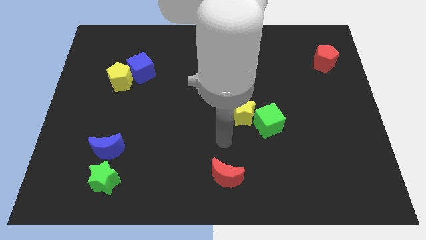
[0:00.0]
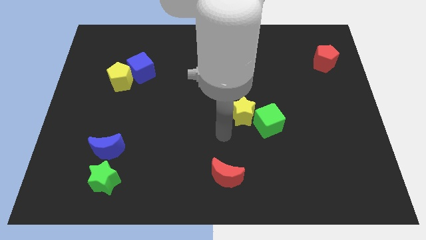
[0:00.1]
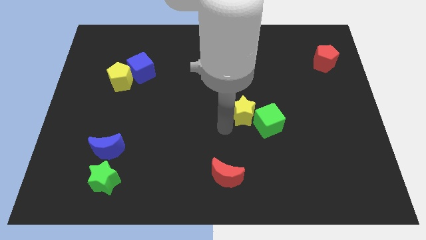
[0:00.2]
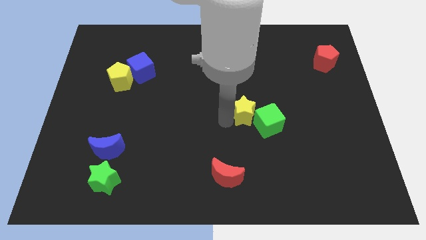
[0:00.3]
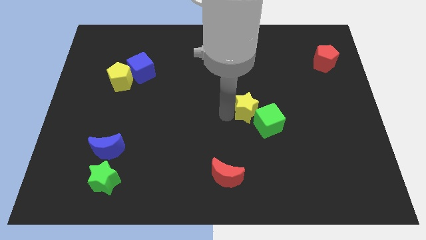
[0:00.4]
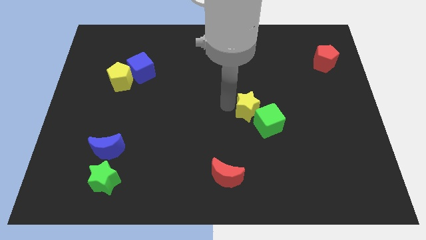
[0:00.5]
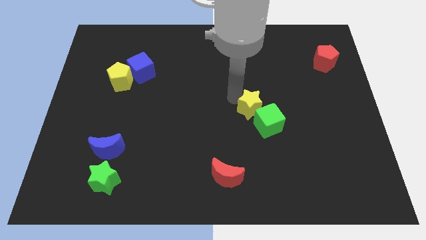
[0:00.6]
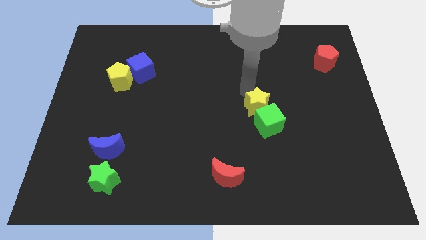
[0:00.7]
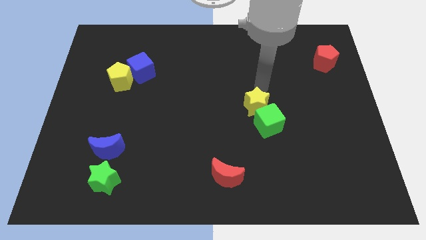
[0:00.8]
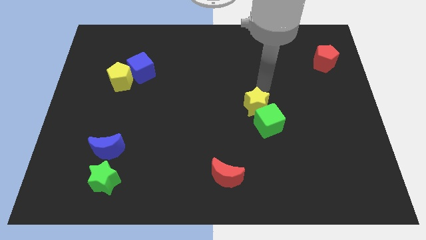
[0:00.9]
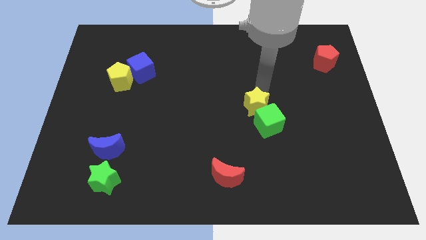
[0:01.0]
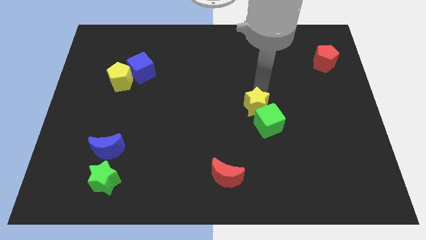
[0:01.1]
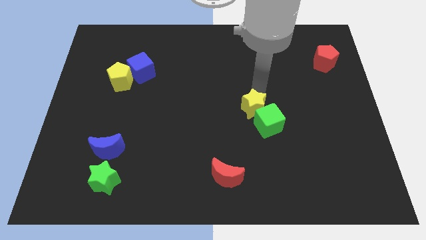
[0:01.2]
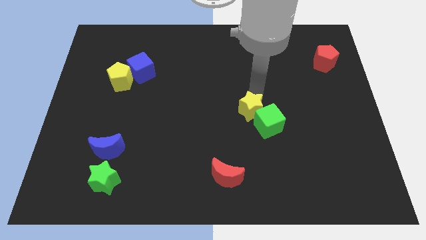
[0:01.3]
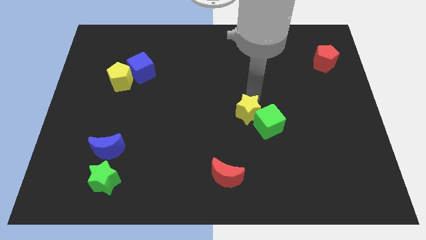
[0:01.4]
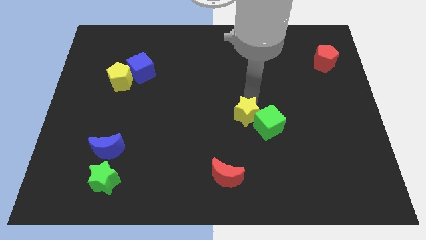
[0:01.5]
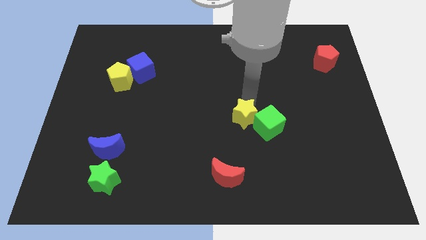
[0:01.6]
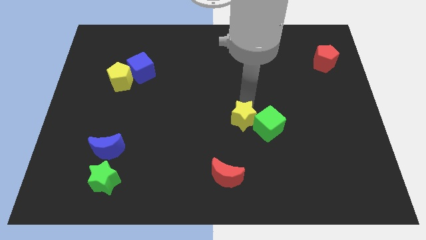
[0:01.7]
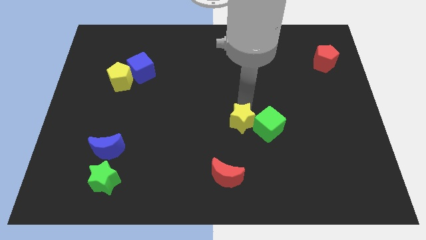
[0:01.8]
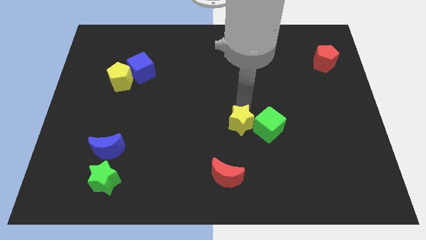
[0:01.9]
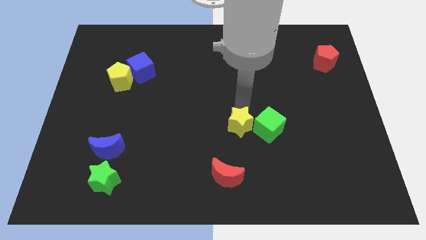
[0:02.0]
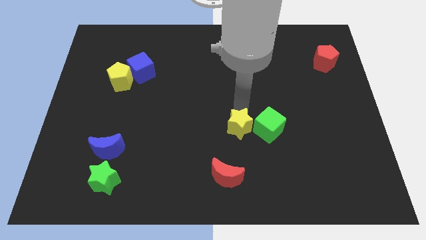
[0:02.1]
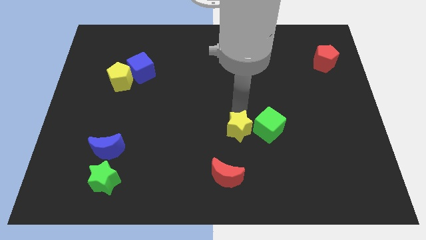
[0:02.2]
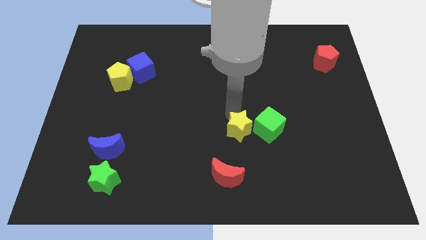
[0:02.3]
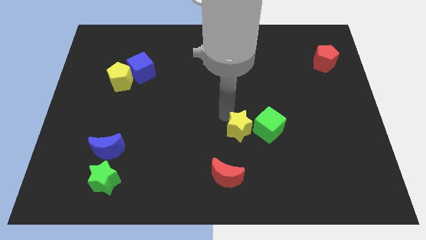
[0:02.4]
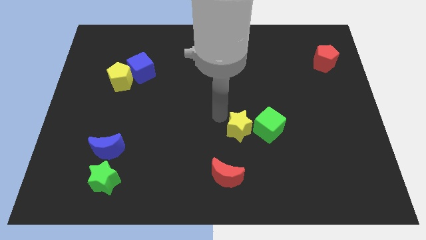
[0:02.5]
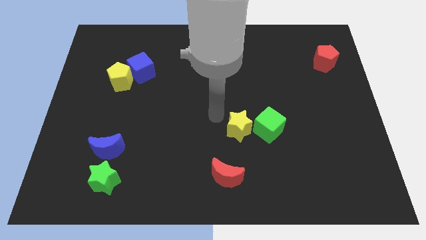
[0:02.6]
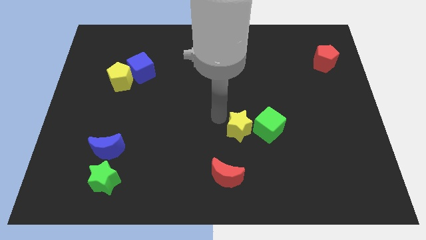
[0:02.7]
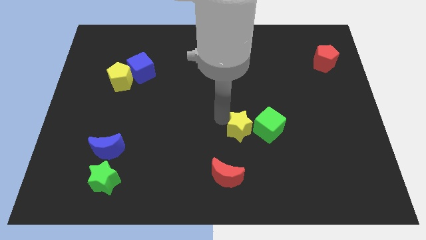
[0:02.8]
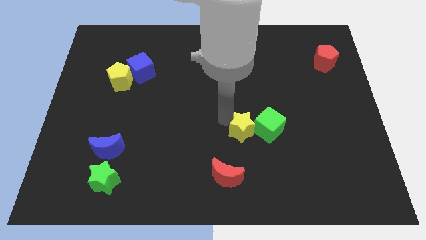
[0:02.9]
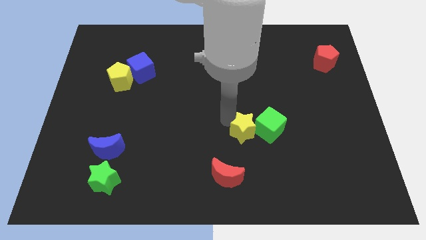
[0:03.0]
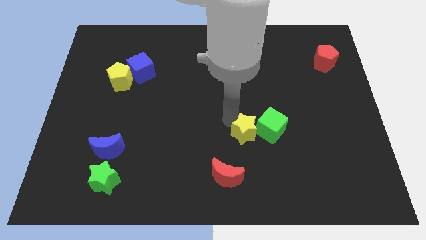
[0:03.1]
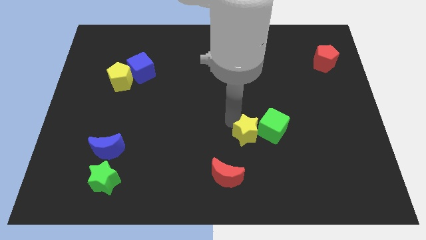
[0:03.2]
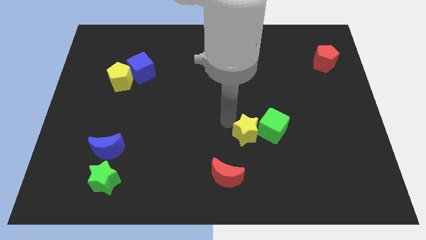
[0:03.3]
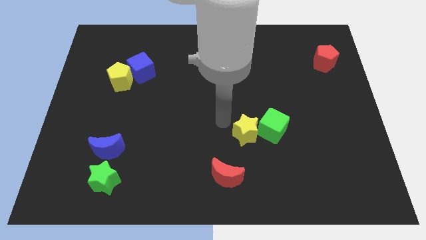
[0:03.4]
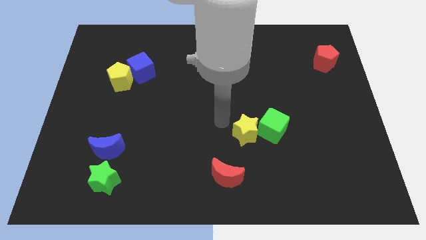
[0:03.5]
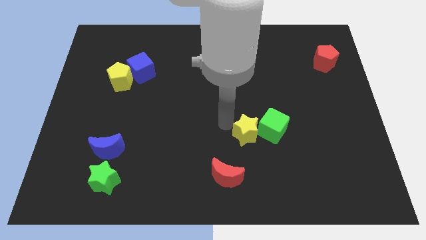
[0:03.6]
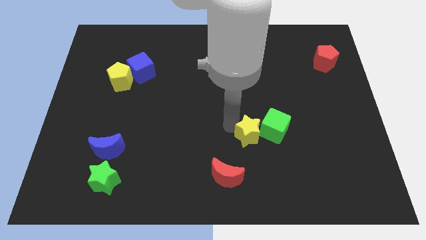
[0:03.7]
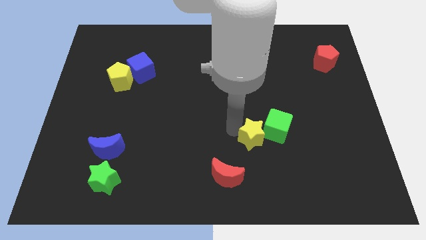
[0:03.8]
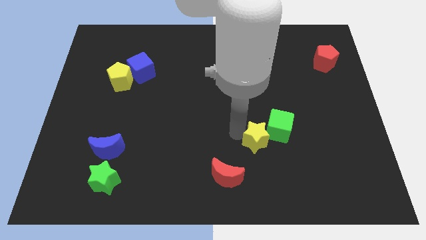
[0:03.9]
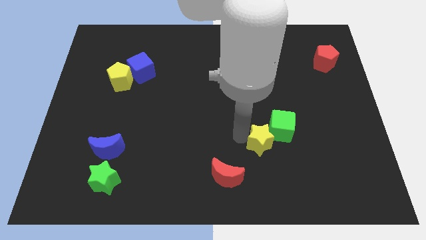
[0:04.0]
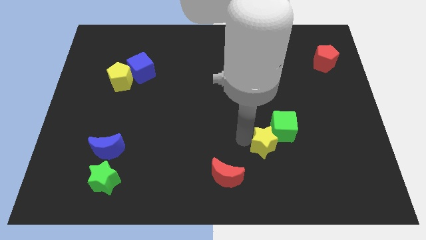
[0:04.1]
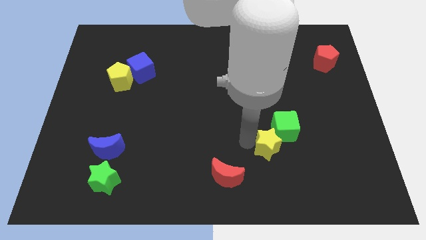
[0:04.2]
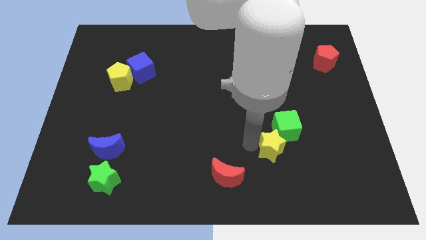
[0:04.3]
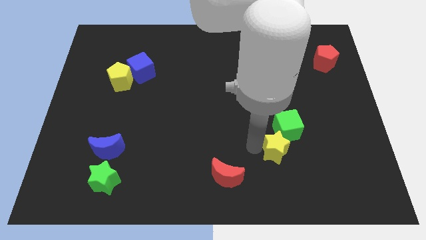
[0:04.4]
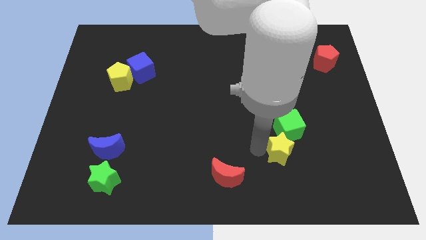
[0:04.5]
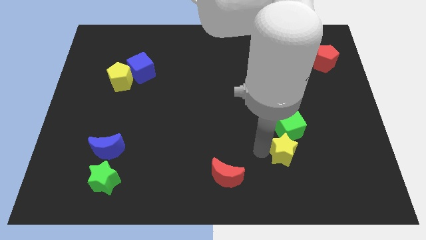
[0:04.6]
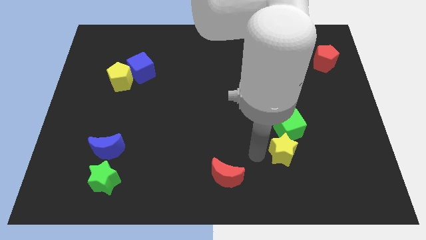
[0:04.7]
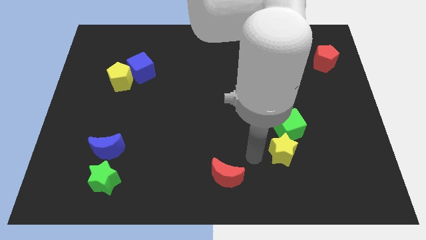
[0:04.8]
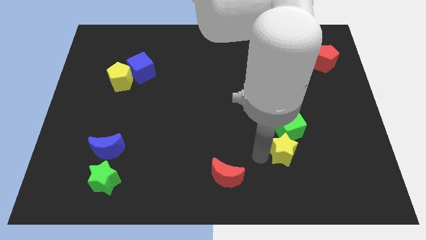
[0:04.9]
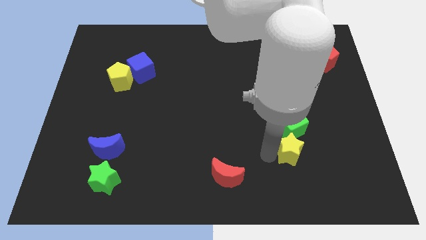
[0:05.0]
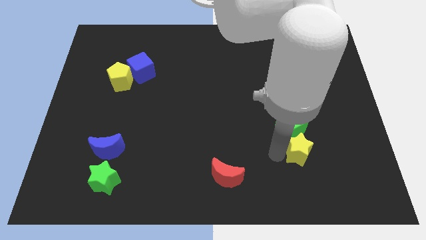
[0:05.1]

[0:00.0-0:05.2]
slide the yellow star to the bottom right of the green cube

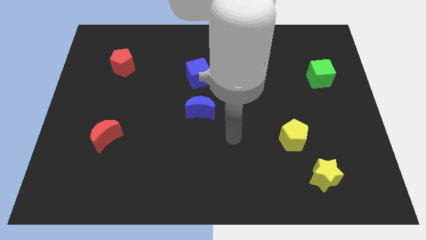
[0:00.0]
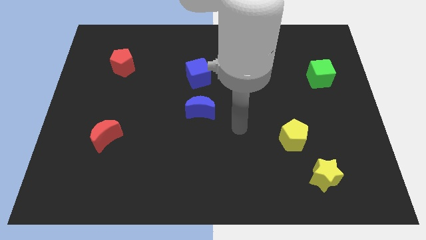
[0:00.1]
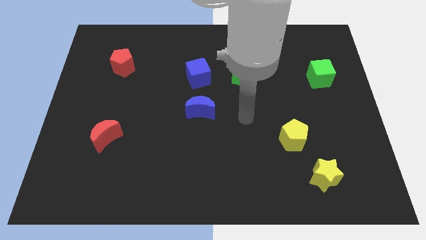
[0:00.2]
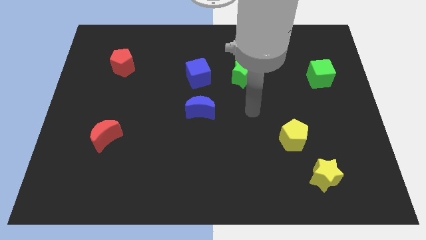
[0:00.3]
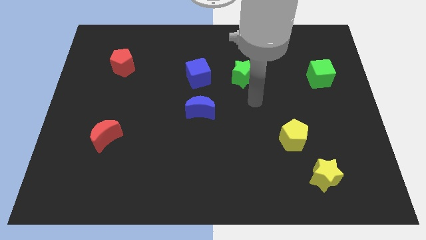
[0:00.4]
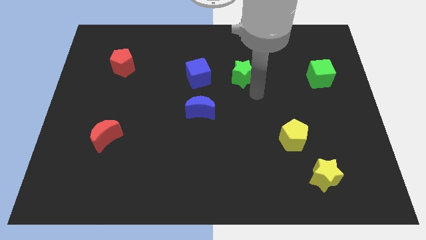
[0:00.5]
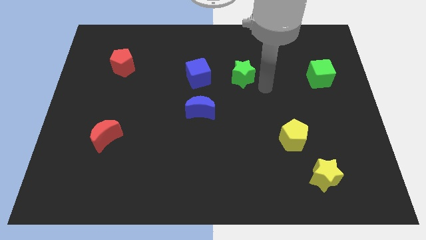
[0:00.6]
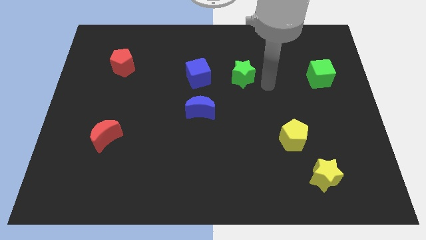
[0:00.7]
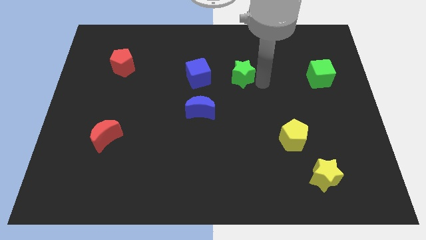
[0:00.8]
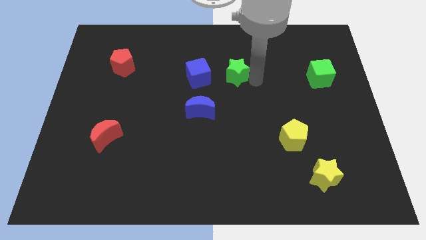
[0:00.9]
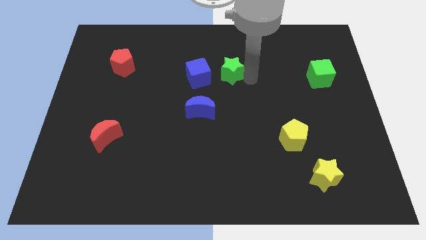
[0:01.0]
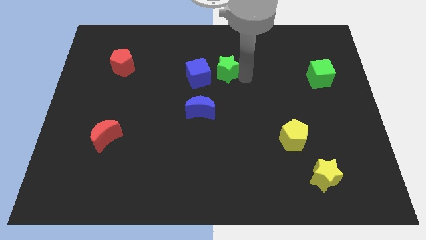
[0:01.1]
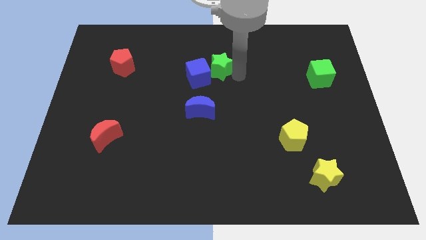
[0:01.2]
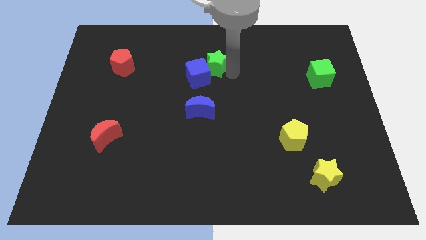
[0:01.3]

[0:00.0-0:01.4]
put the green star to the top of the blue moon
